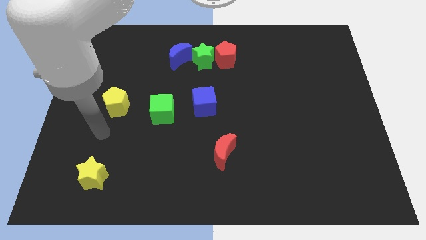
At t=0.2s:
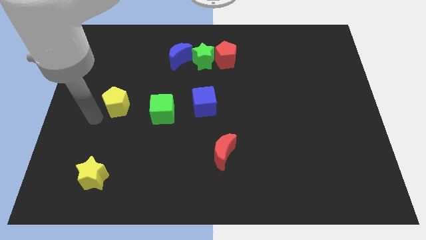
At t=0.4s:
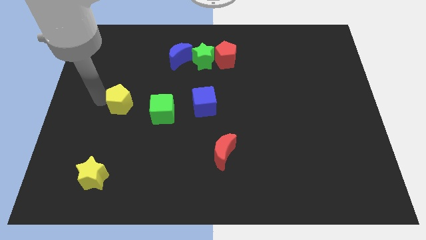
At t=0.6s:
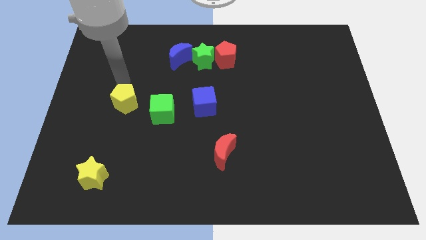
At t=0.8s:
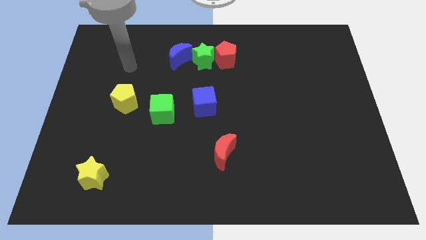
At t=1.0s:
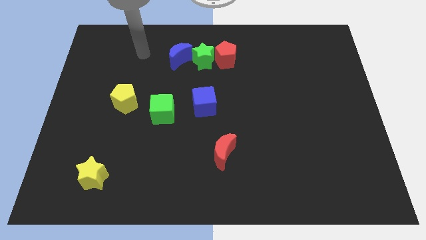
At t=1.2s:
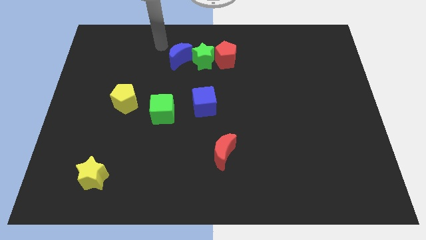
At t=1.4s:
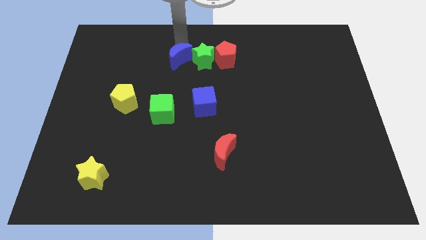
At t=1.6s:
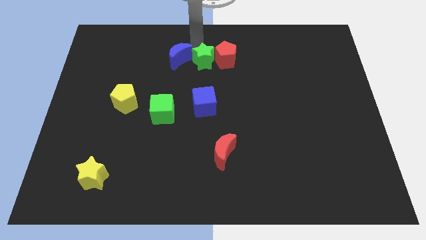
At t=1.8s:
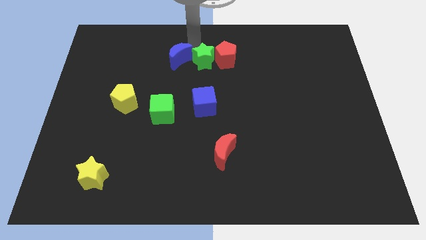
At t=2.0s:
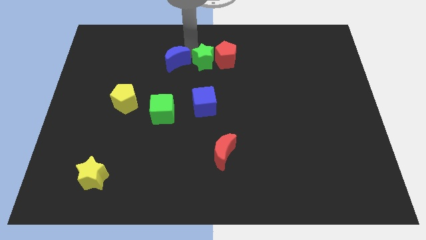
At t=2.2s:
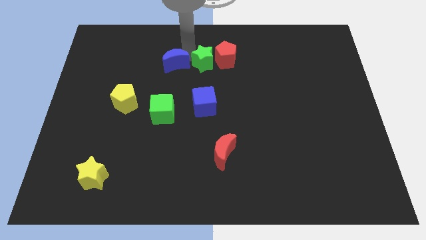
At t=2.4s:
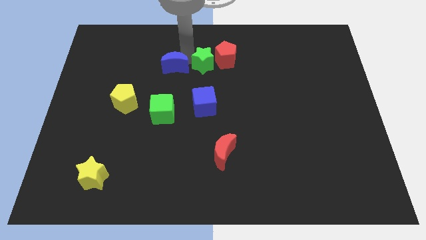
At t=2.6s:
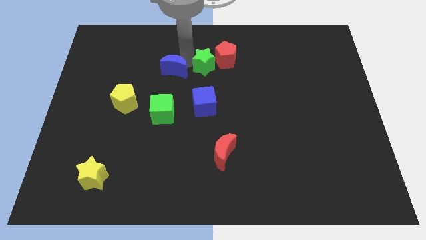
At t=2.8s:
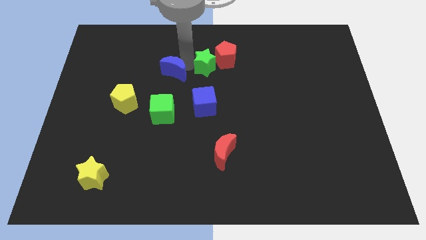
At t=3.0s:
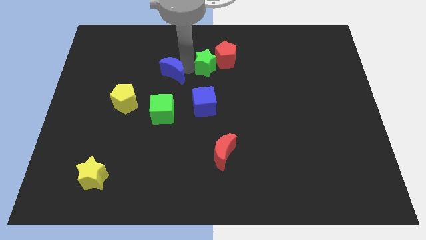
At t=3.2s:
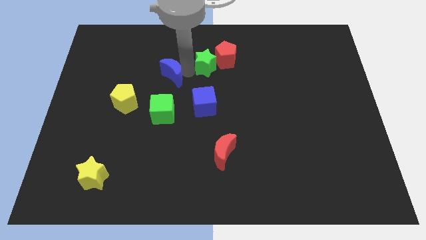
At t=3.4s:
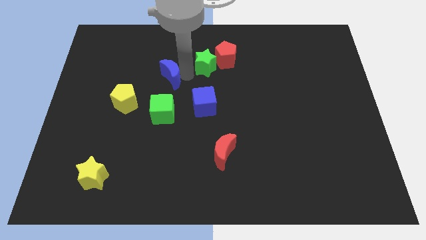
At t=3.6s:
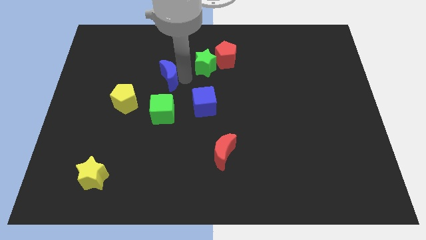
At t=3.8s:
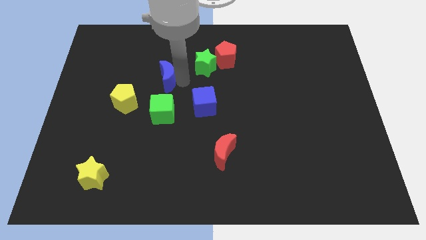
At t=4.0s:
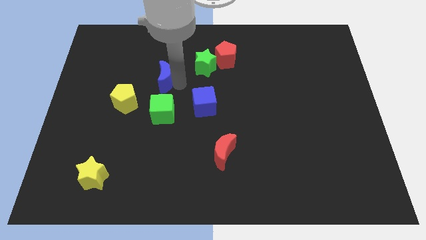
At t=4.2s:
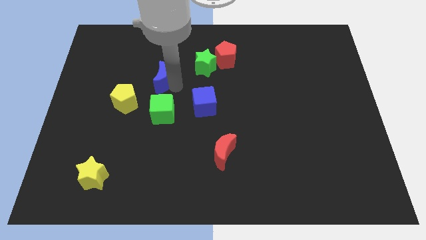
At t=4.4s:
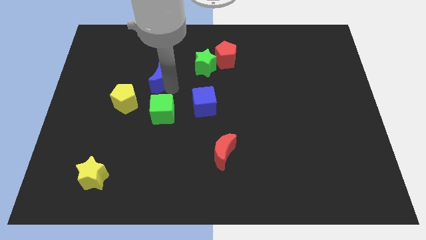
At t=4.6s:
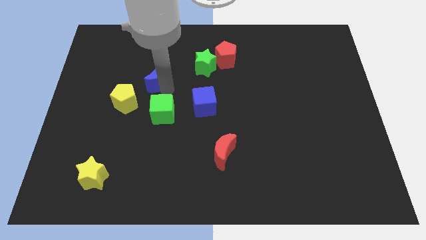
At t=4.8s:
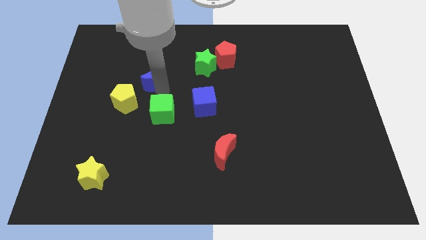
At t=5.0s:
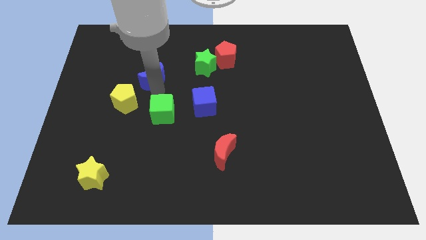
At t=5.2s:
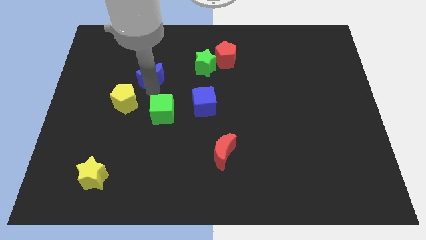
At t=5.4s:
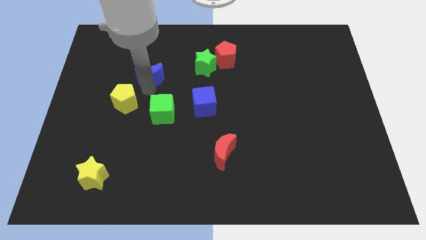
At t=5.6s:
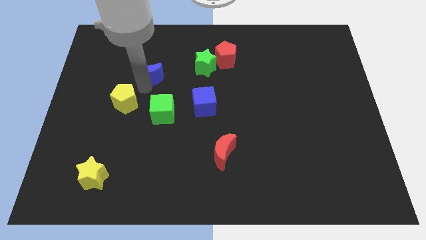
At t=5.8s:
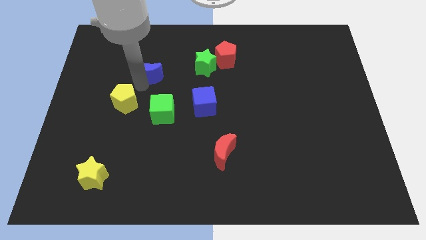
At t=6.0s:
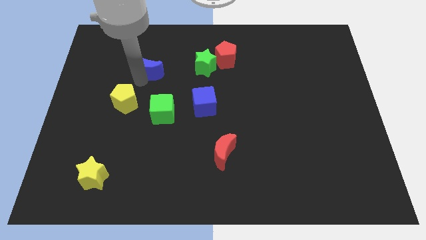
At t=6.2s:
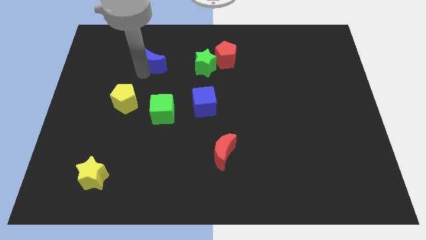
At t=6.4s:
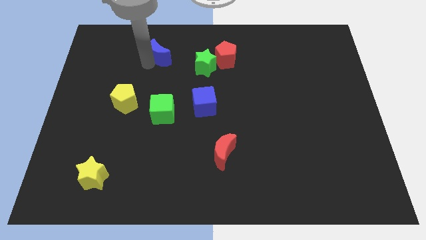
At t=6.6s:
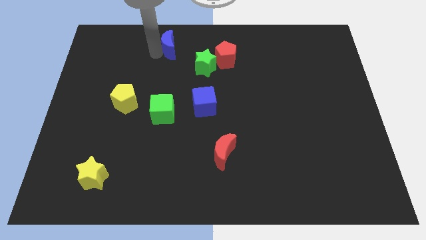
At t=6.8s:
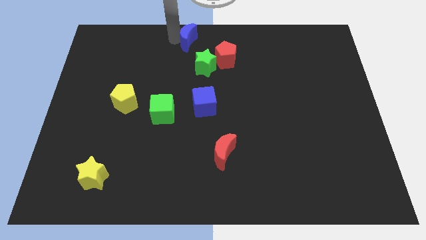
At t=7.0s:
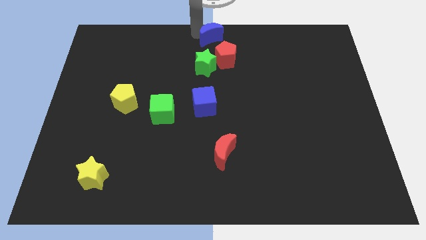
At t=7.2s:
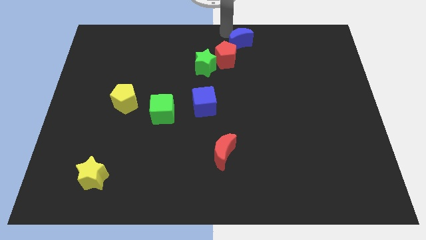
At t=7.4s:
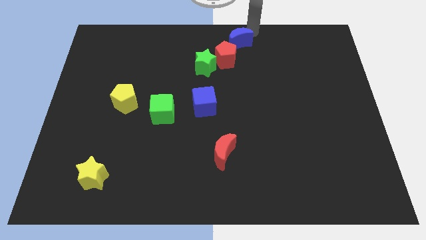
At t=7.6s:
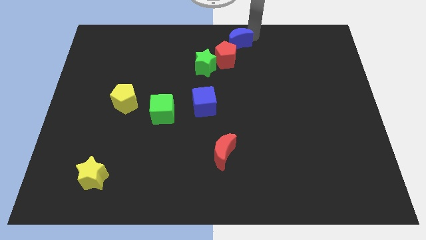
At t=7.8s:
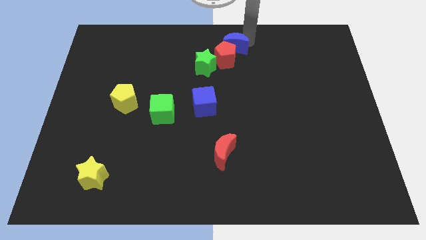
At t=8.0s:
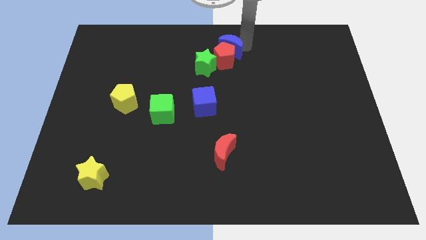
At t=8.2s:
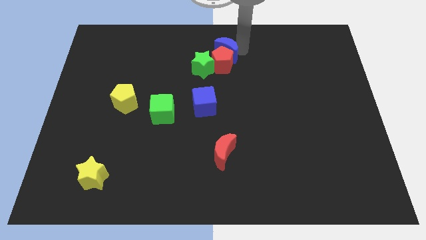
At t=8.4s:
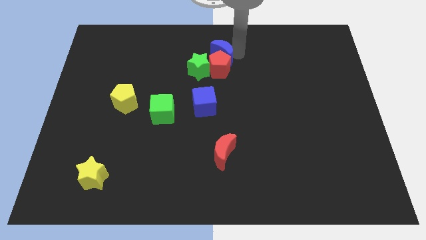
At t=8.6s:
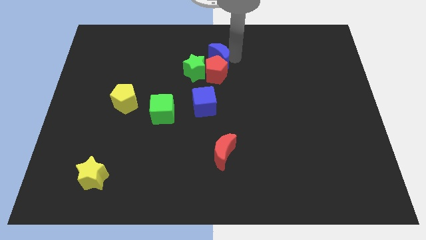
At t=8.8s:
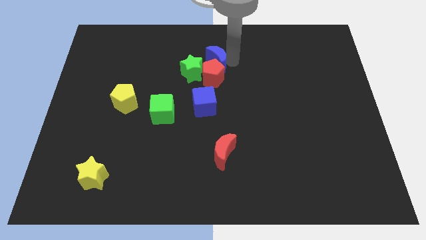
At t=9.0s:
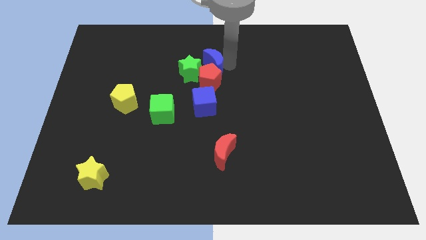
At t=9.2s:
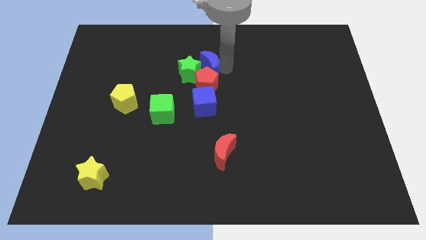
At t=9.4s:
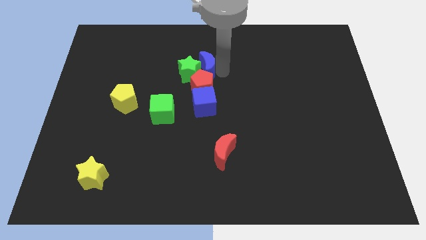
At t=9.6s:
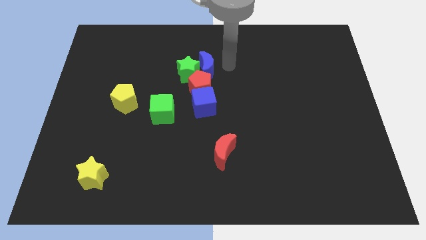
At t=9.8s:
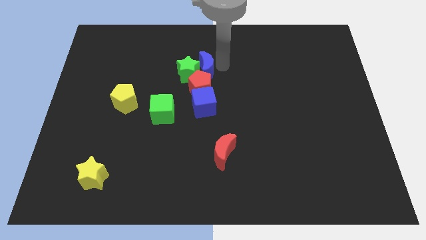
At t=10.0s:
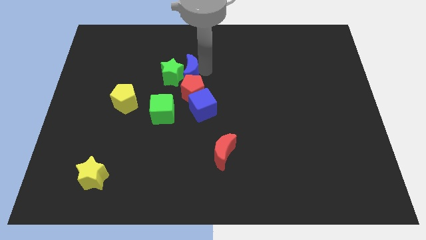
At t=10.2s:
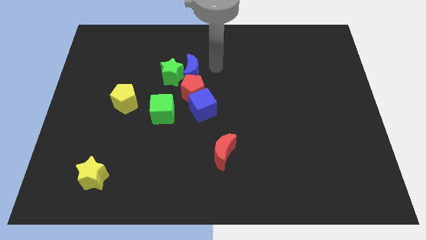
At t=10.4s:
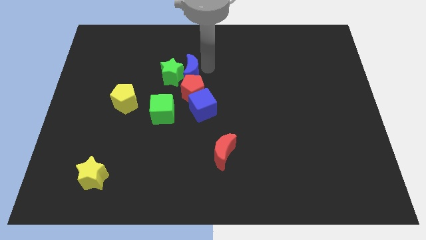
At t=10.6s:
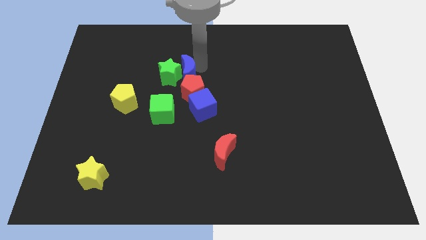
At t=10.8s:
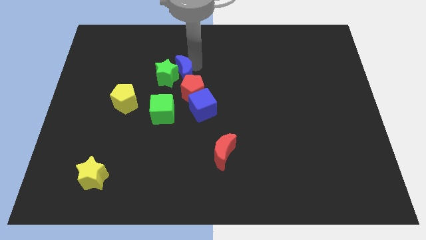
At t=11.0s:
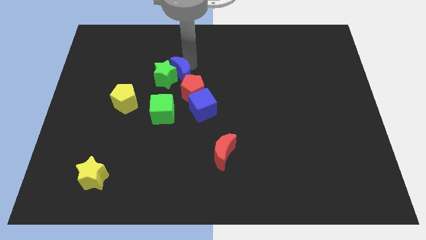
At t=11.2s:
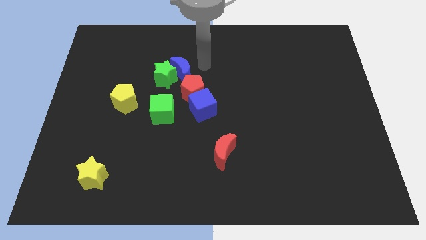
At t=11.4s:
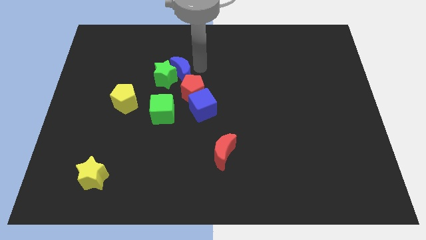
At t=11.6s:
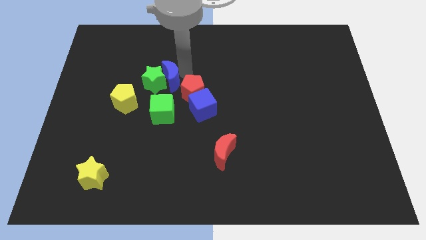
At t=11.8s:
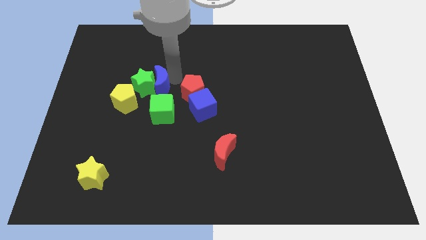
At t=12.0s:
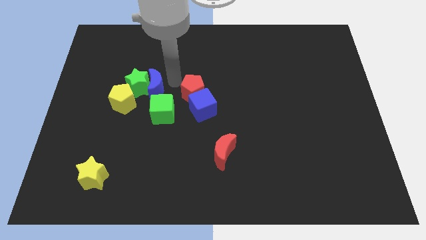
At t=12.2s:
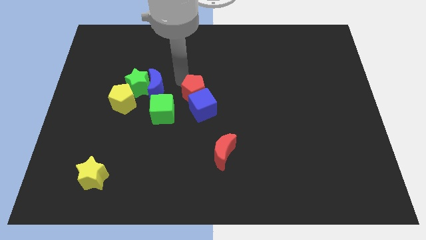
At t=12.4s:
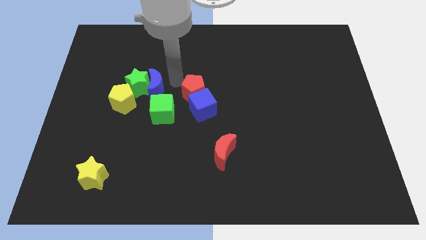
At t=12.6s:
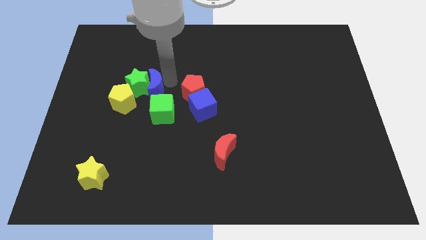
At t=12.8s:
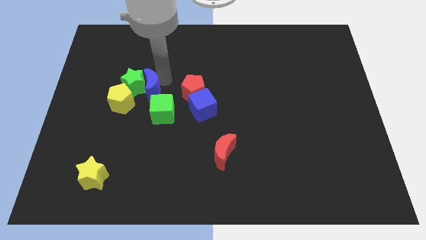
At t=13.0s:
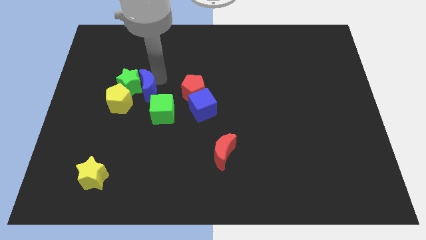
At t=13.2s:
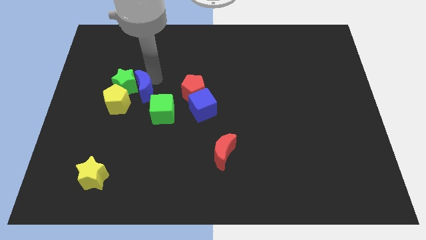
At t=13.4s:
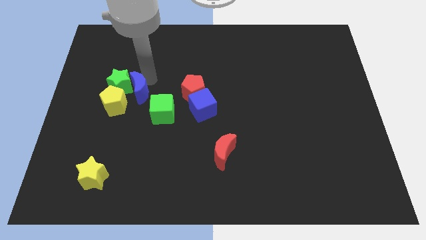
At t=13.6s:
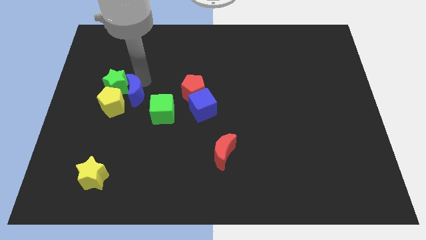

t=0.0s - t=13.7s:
move the blue moon to the yellow pentagon
